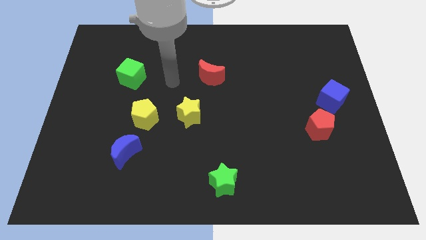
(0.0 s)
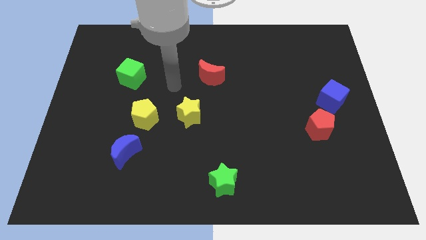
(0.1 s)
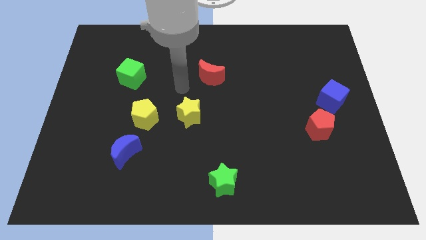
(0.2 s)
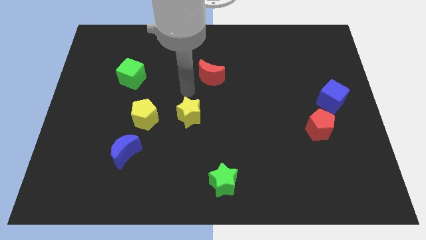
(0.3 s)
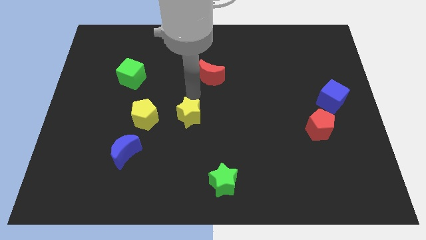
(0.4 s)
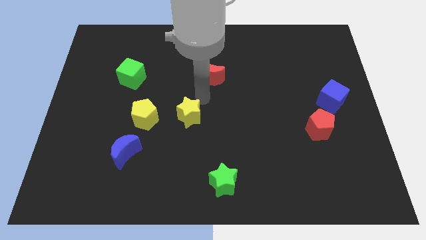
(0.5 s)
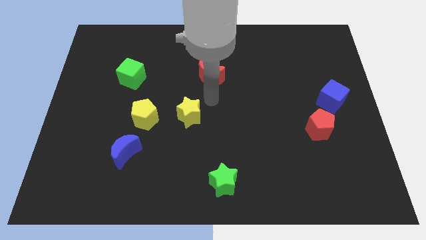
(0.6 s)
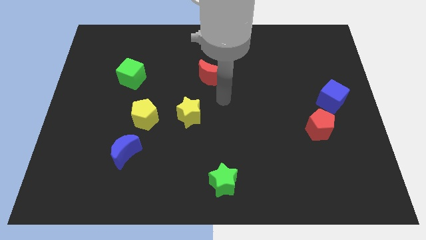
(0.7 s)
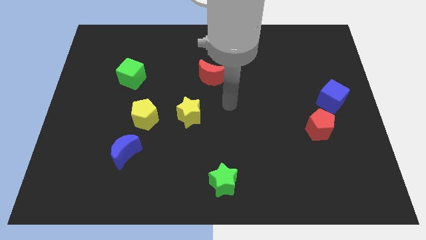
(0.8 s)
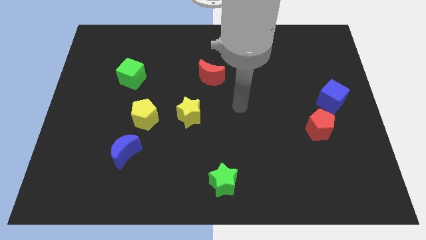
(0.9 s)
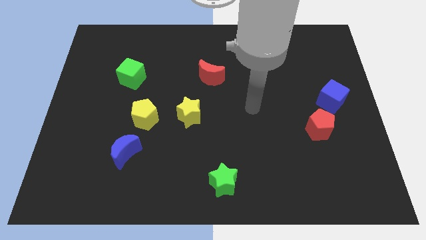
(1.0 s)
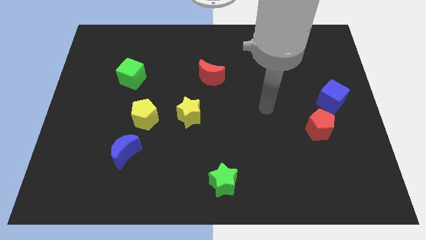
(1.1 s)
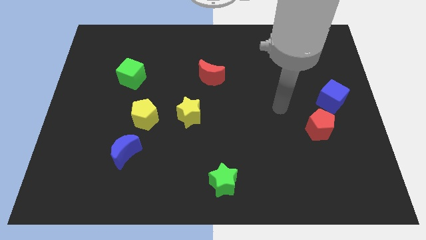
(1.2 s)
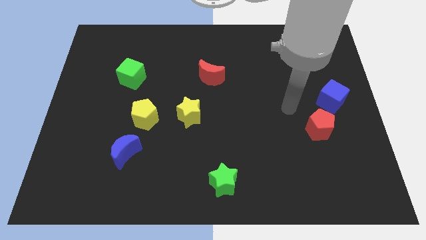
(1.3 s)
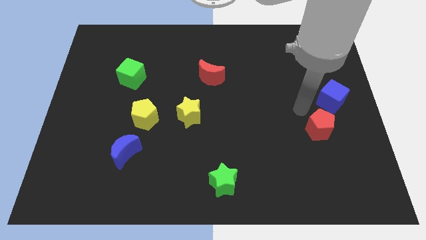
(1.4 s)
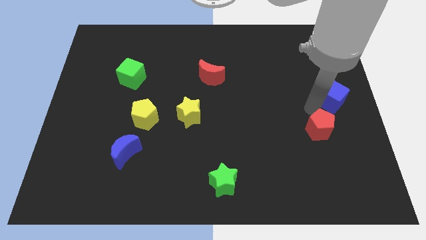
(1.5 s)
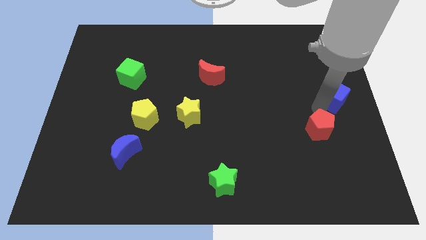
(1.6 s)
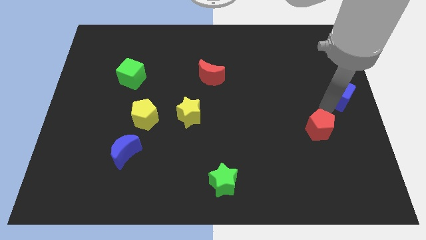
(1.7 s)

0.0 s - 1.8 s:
pull the red pentagon apart from the blue cube

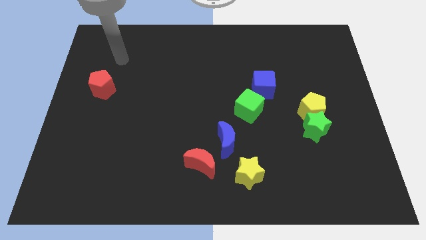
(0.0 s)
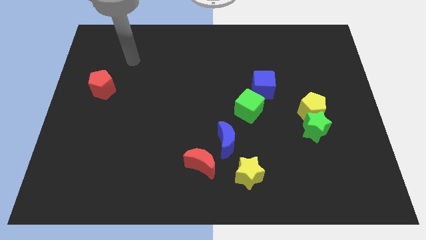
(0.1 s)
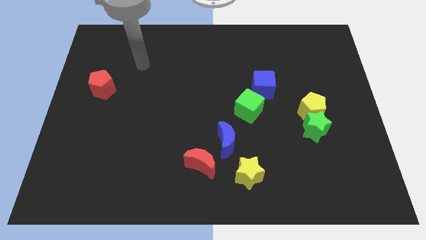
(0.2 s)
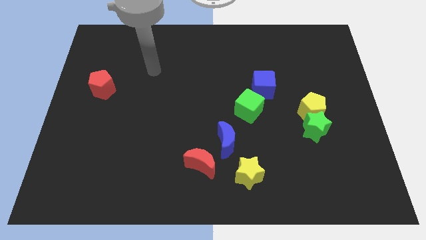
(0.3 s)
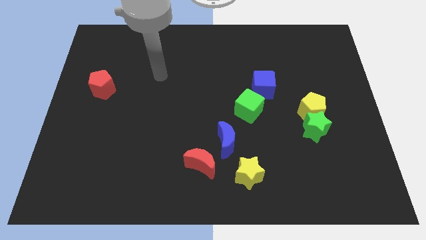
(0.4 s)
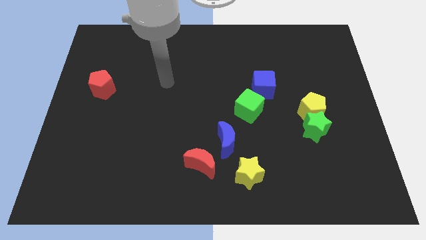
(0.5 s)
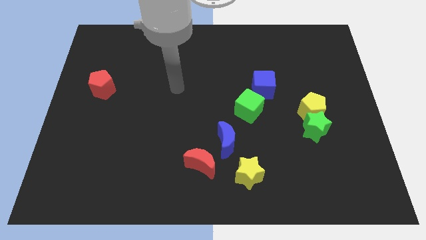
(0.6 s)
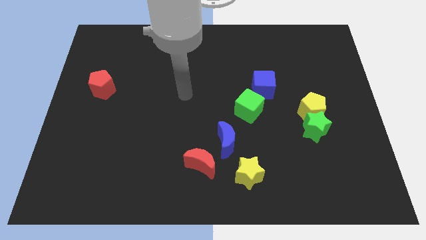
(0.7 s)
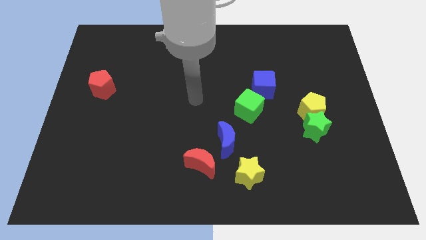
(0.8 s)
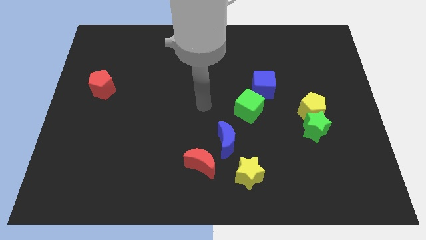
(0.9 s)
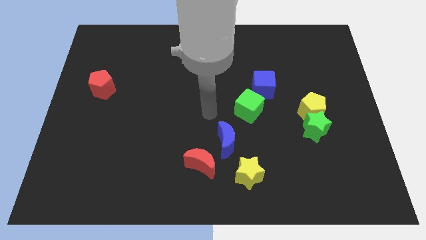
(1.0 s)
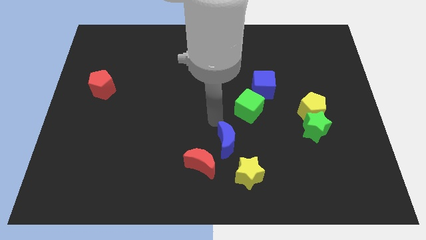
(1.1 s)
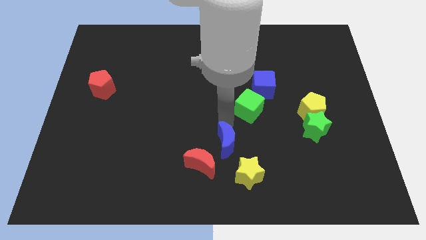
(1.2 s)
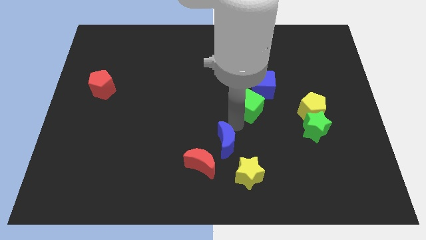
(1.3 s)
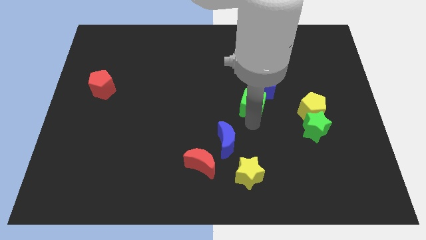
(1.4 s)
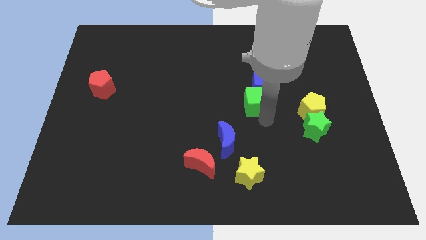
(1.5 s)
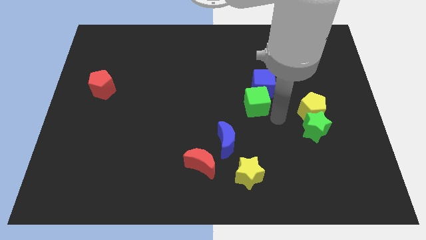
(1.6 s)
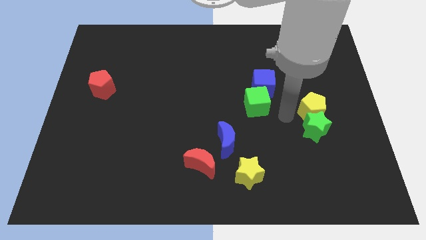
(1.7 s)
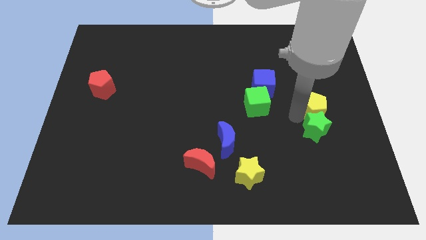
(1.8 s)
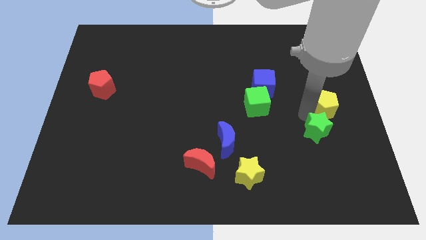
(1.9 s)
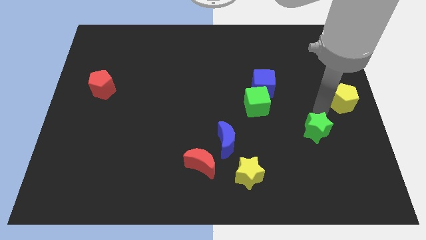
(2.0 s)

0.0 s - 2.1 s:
move the green star away from the yellow pentagon

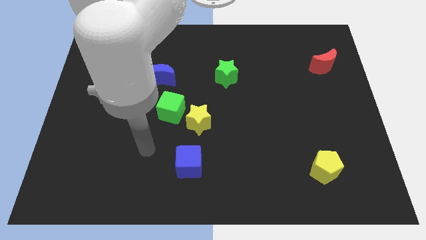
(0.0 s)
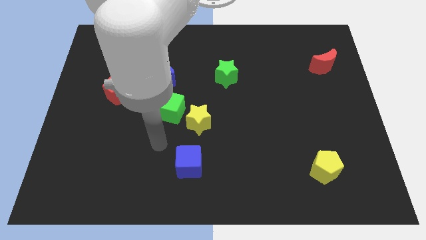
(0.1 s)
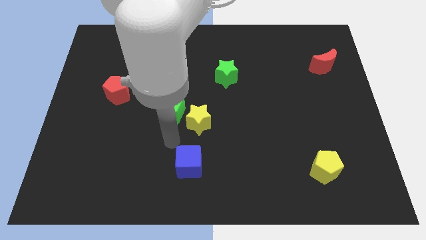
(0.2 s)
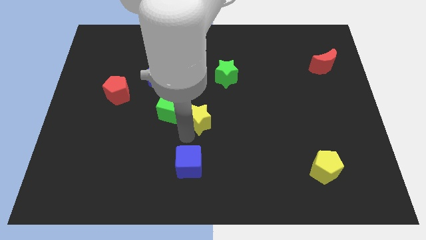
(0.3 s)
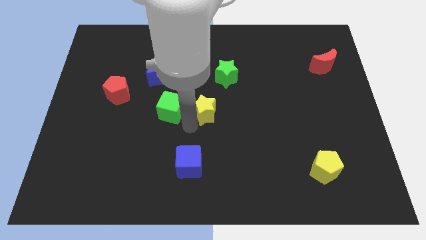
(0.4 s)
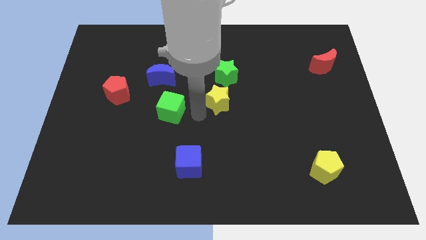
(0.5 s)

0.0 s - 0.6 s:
pull the green cube apart from the yellow star

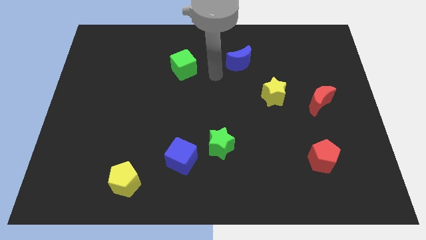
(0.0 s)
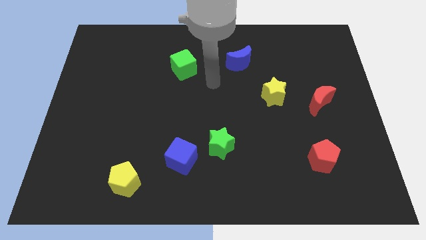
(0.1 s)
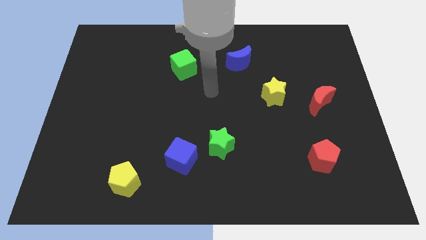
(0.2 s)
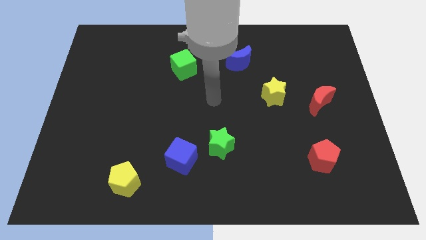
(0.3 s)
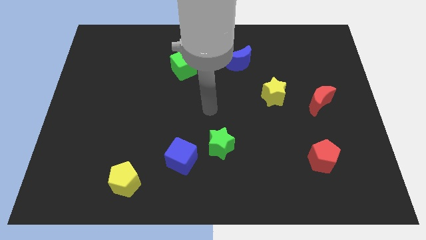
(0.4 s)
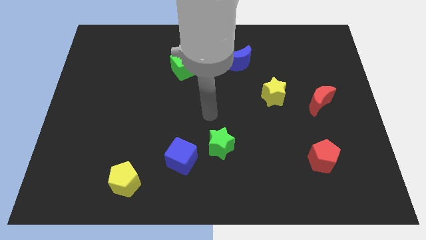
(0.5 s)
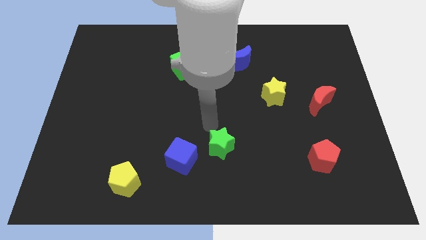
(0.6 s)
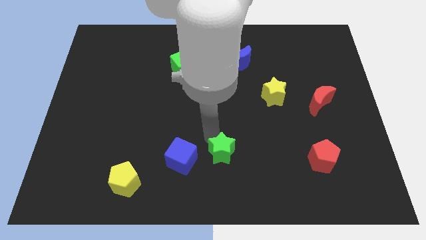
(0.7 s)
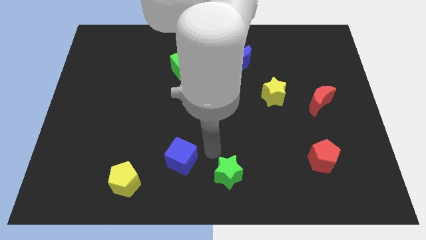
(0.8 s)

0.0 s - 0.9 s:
pull the blue cube apart from the green star

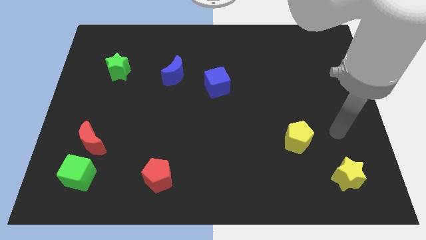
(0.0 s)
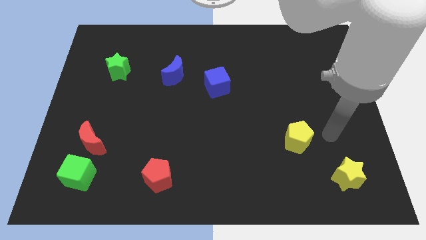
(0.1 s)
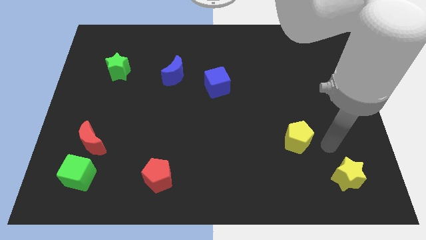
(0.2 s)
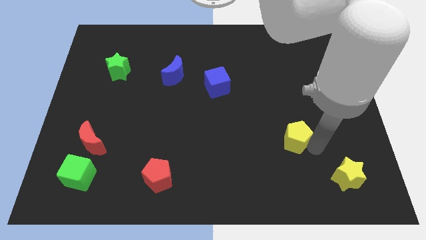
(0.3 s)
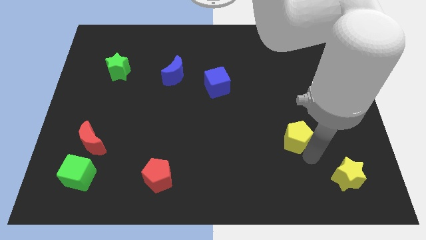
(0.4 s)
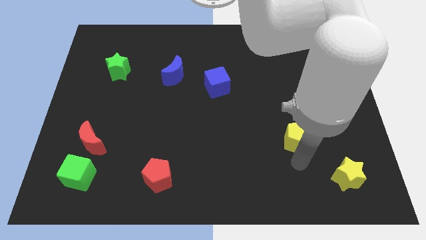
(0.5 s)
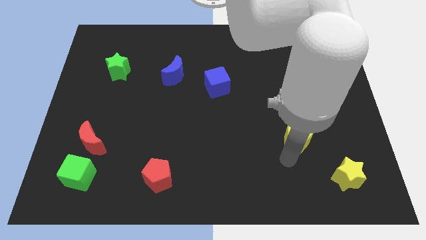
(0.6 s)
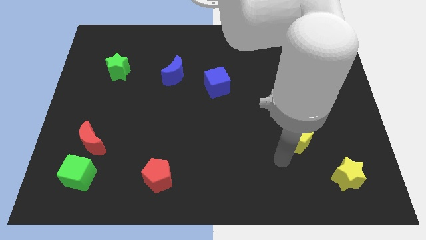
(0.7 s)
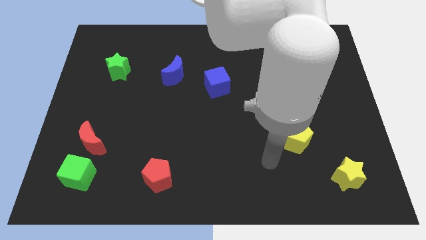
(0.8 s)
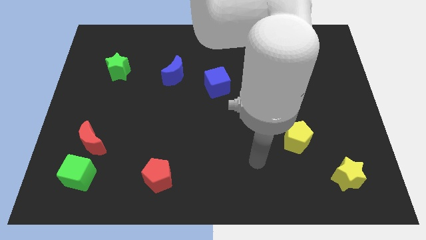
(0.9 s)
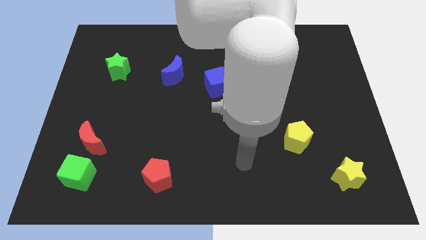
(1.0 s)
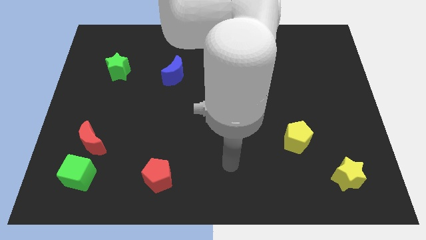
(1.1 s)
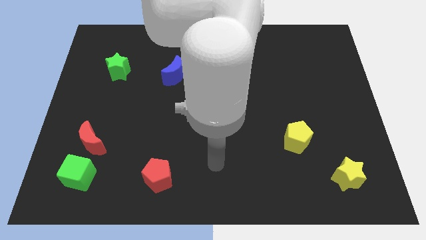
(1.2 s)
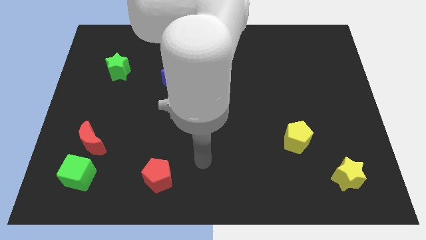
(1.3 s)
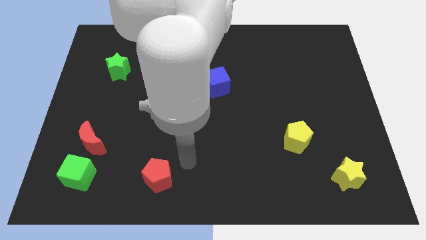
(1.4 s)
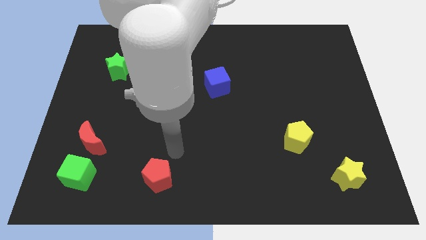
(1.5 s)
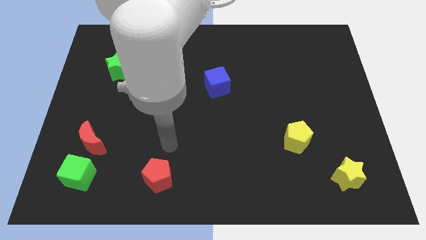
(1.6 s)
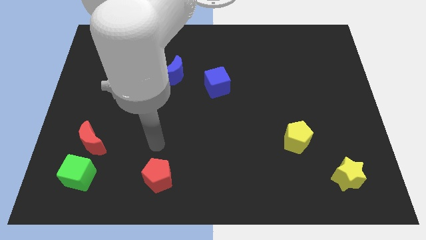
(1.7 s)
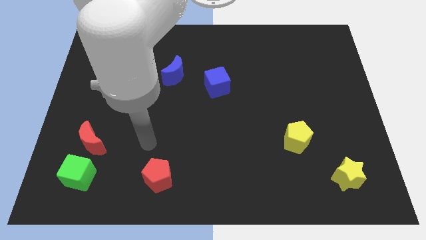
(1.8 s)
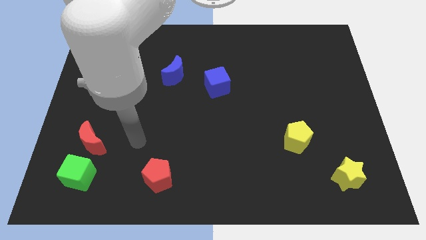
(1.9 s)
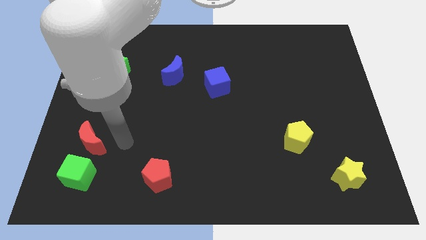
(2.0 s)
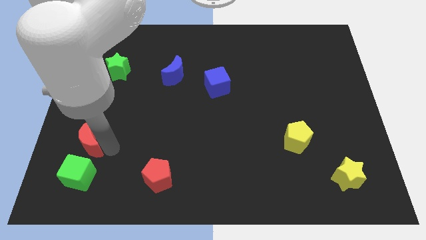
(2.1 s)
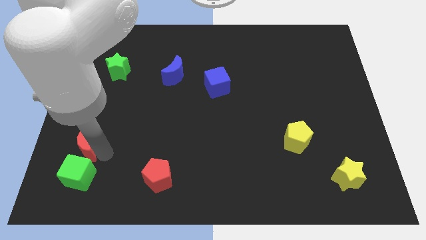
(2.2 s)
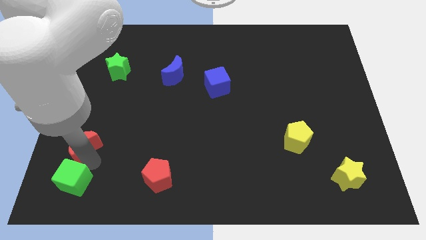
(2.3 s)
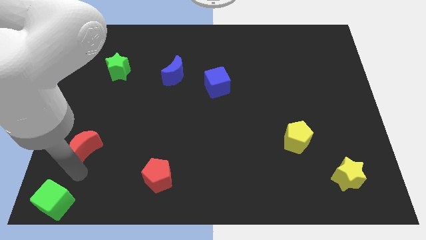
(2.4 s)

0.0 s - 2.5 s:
separate the red moon from the green cube

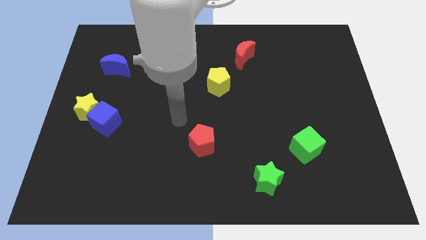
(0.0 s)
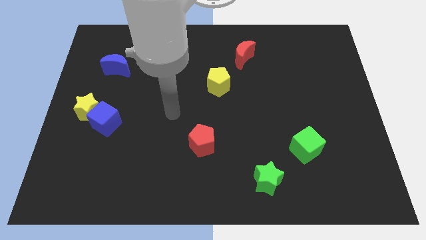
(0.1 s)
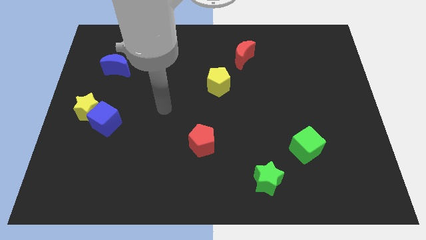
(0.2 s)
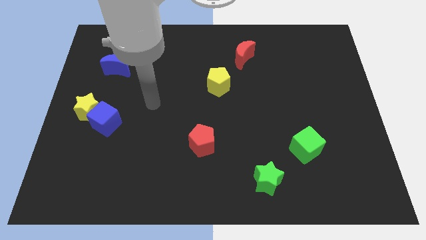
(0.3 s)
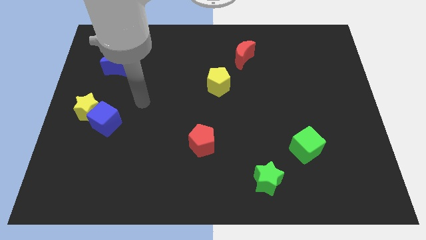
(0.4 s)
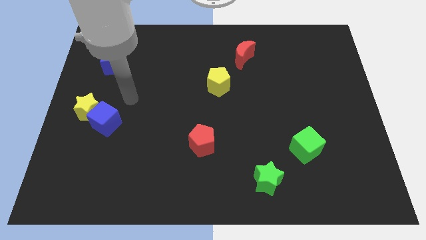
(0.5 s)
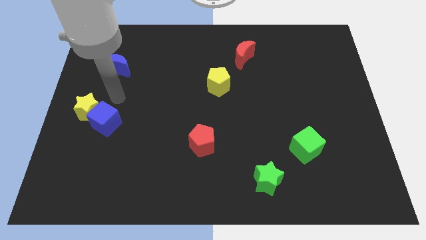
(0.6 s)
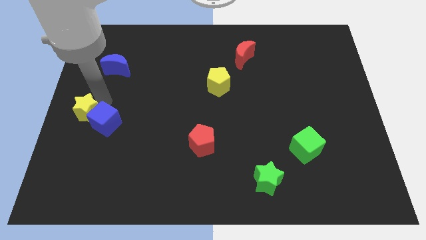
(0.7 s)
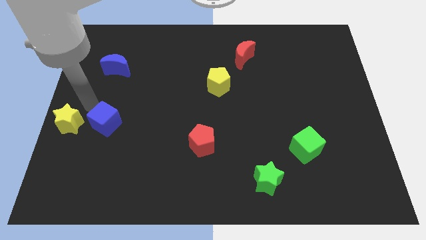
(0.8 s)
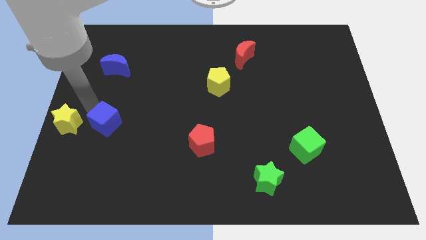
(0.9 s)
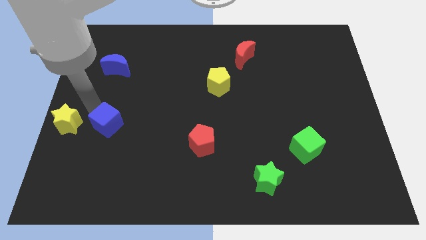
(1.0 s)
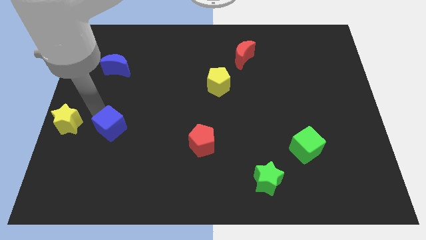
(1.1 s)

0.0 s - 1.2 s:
move the blue cube away from the yellow star

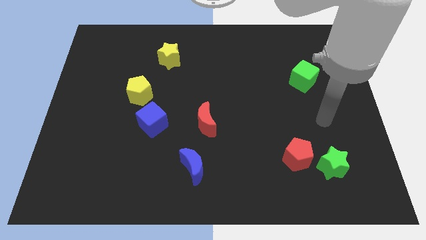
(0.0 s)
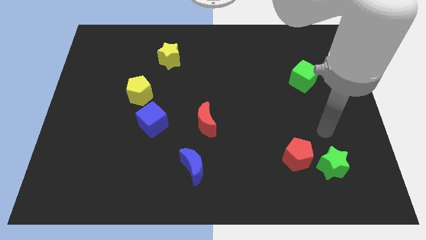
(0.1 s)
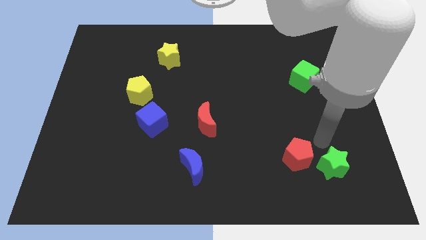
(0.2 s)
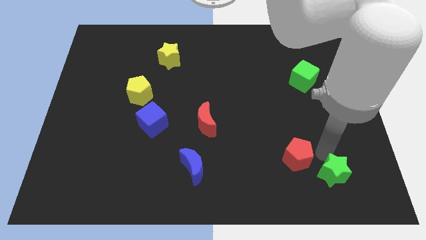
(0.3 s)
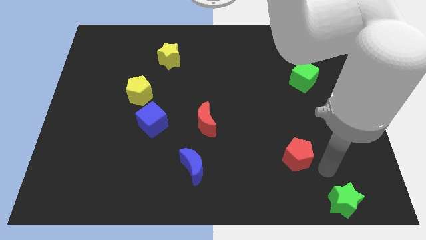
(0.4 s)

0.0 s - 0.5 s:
move the red pentagon away from the green star
